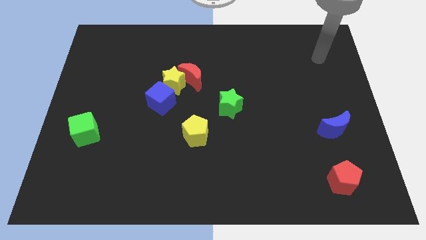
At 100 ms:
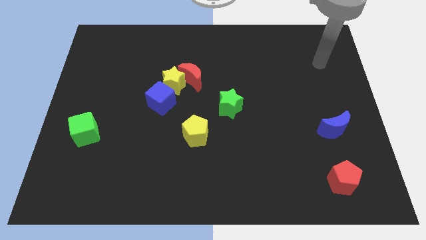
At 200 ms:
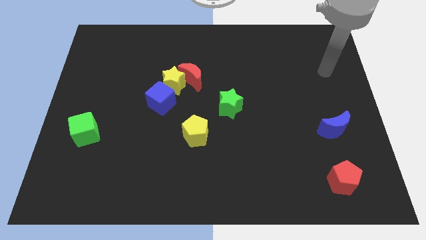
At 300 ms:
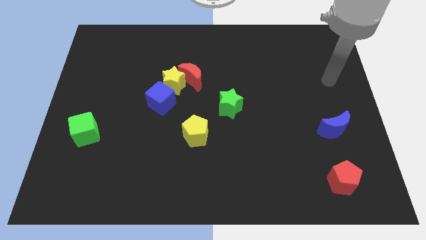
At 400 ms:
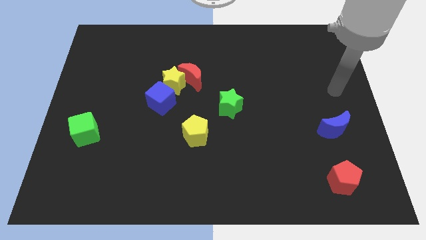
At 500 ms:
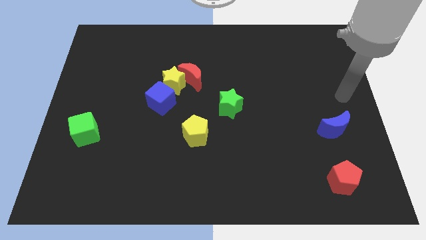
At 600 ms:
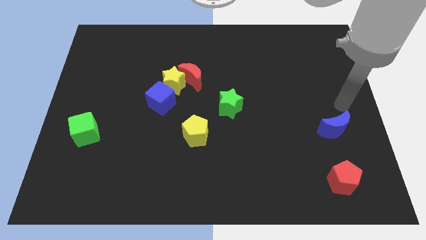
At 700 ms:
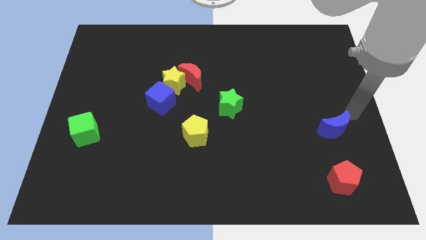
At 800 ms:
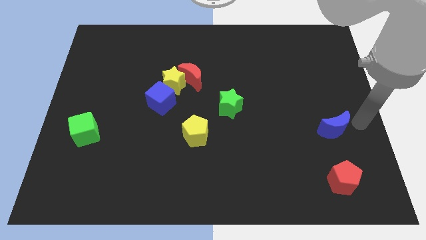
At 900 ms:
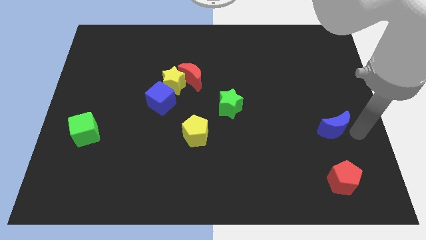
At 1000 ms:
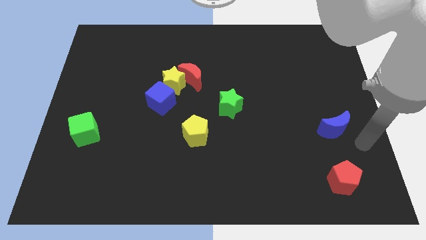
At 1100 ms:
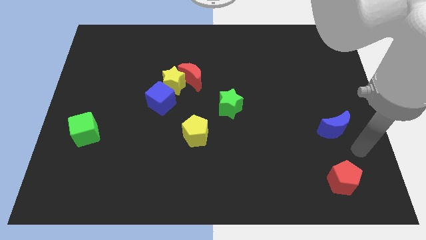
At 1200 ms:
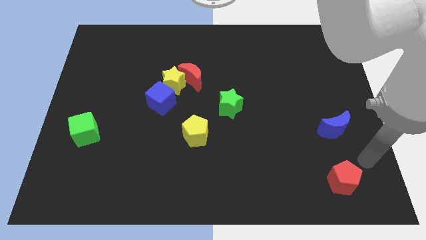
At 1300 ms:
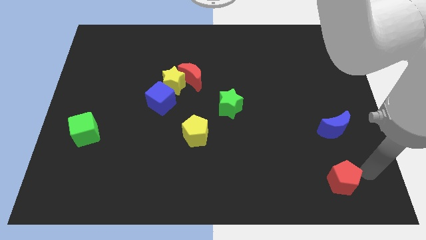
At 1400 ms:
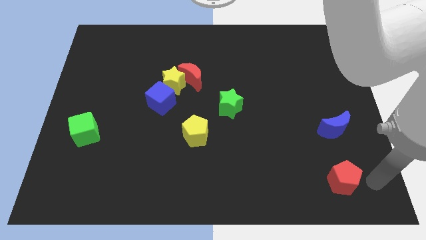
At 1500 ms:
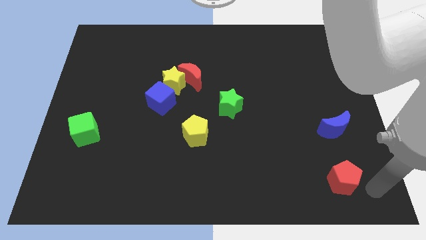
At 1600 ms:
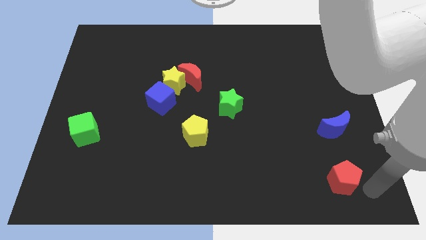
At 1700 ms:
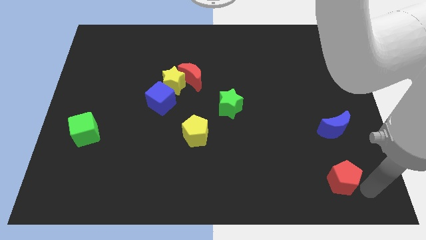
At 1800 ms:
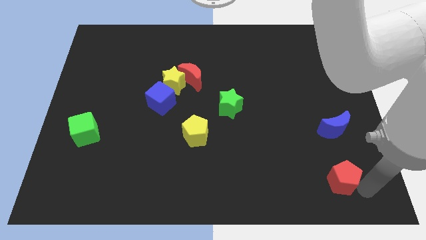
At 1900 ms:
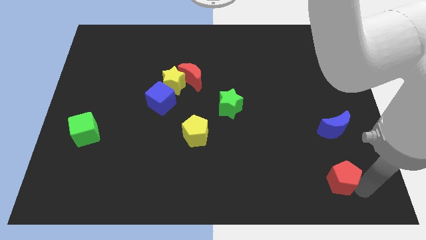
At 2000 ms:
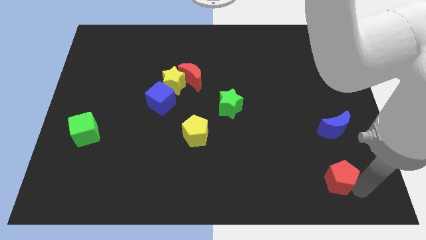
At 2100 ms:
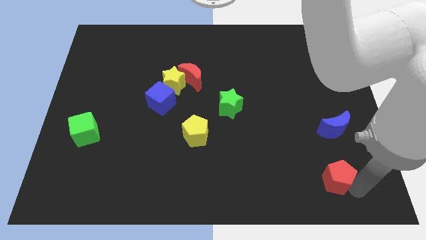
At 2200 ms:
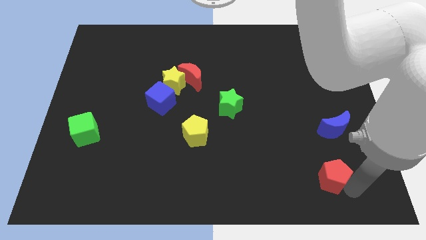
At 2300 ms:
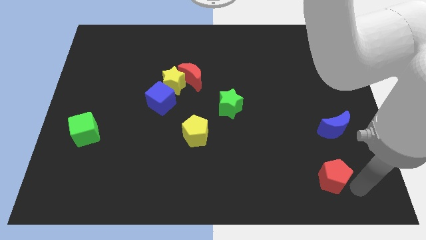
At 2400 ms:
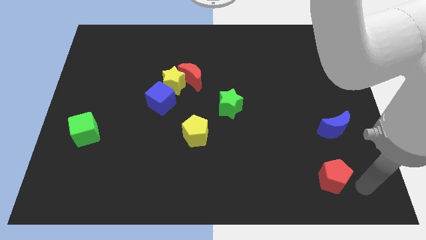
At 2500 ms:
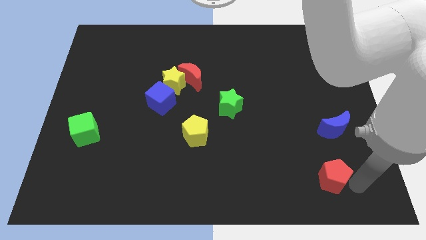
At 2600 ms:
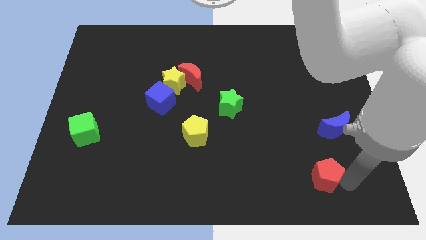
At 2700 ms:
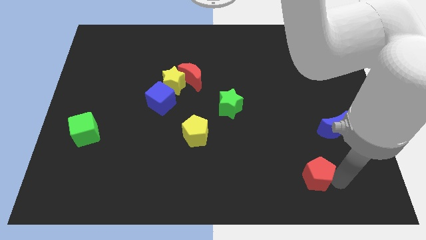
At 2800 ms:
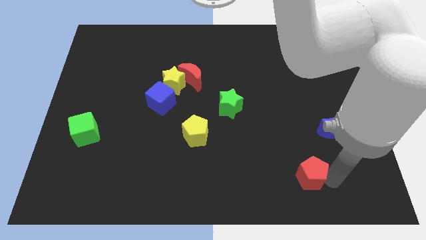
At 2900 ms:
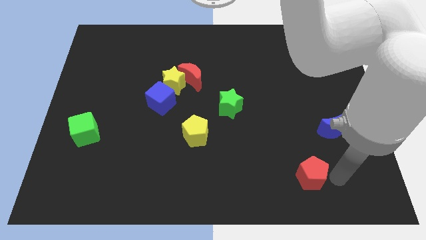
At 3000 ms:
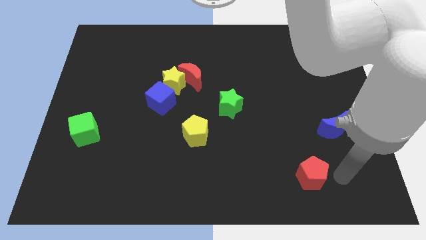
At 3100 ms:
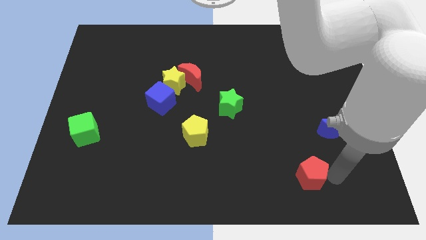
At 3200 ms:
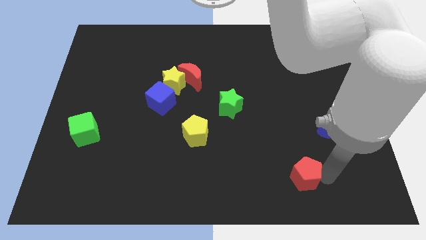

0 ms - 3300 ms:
slide the red pentagon slightly to the left

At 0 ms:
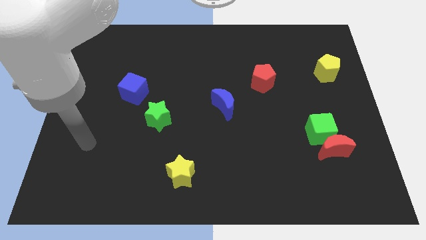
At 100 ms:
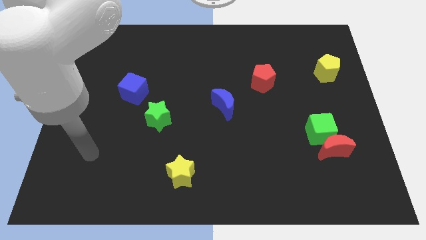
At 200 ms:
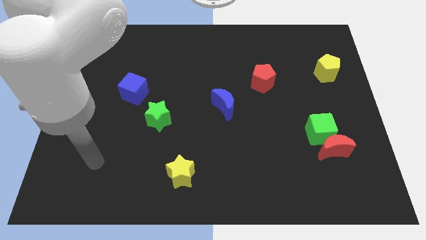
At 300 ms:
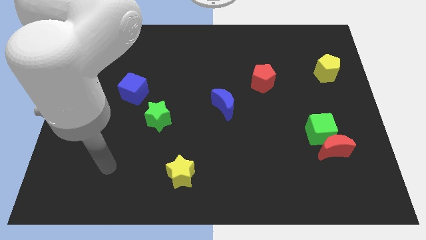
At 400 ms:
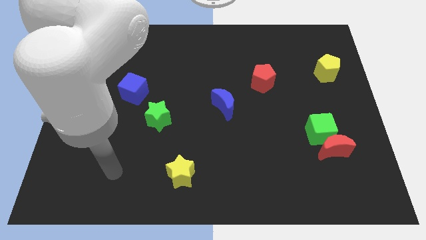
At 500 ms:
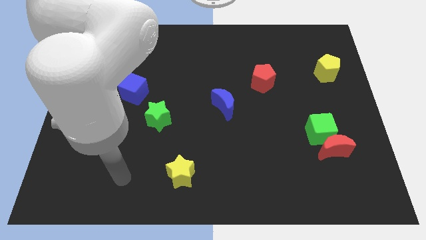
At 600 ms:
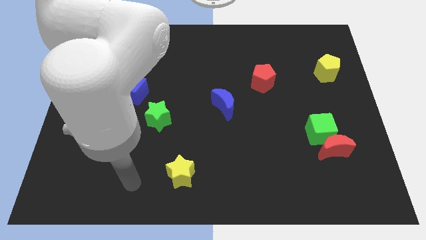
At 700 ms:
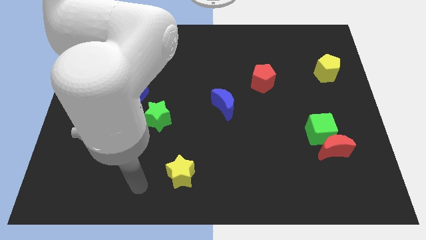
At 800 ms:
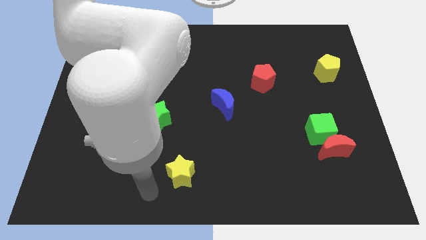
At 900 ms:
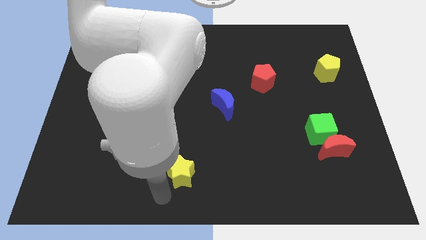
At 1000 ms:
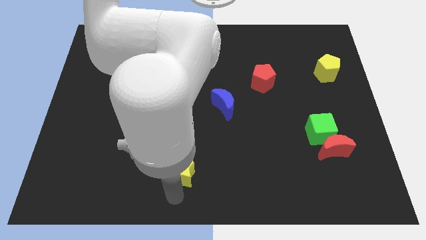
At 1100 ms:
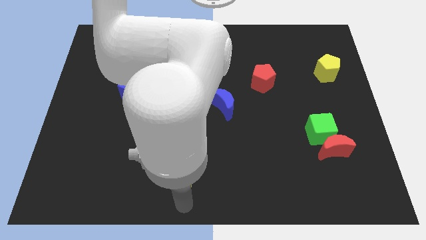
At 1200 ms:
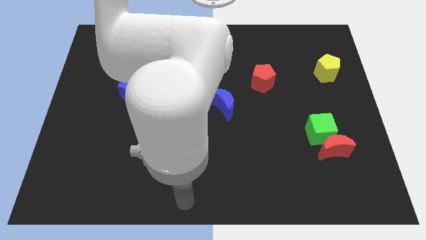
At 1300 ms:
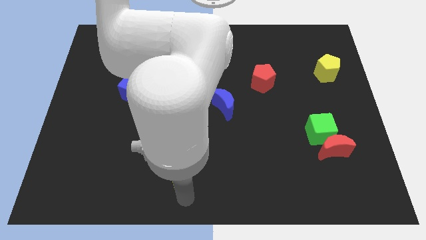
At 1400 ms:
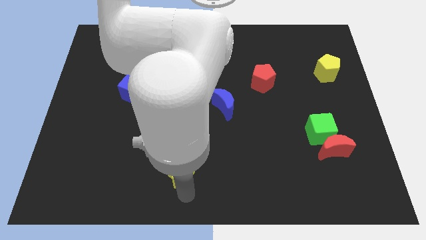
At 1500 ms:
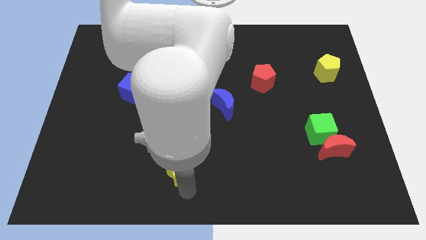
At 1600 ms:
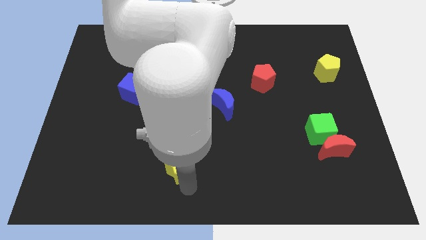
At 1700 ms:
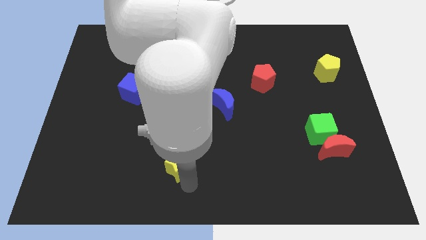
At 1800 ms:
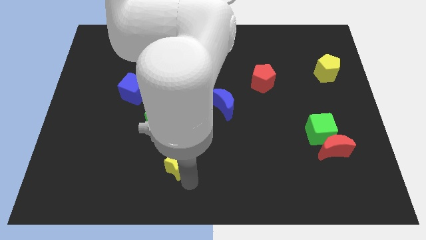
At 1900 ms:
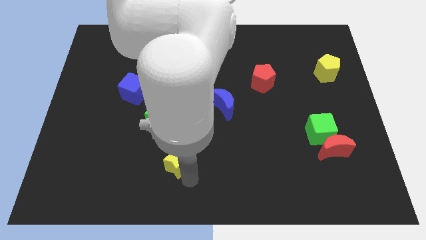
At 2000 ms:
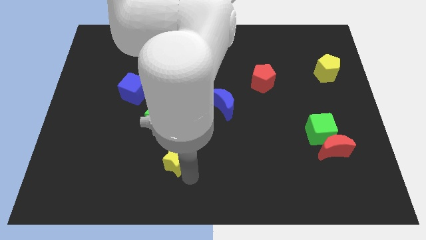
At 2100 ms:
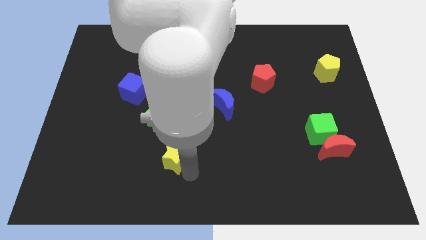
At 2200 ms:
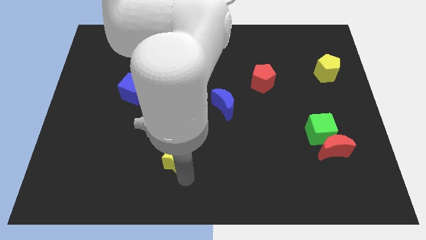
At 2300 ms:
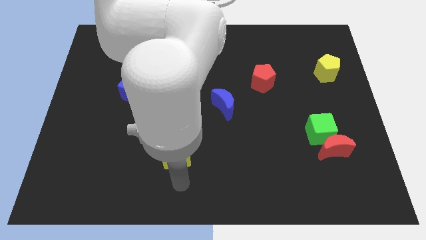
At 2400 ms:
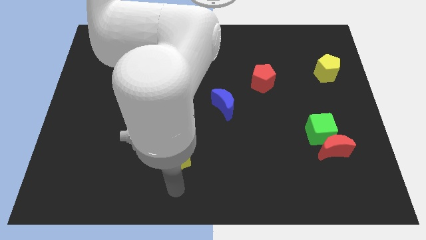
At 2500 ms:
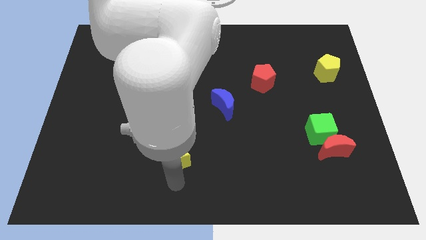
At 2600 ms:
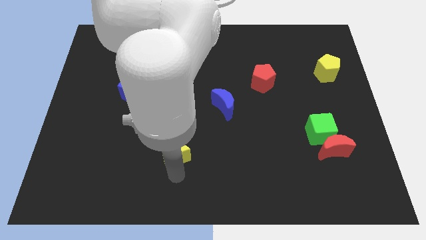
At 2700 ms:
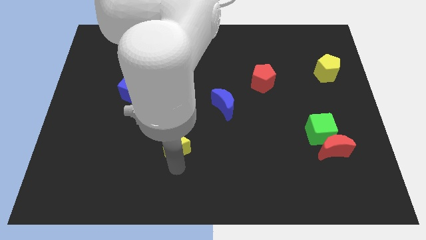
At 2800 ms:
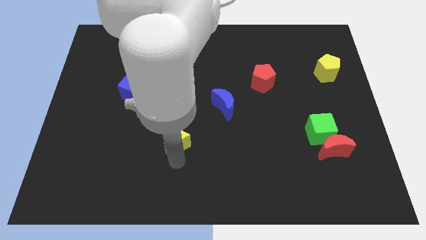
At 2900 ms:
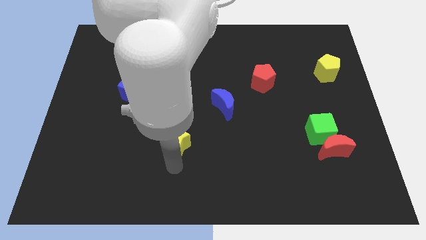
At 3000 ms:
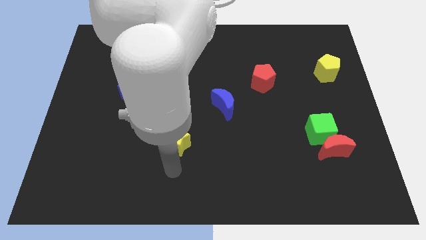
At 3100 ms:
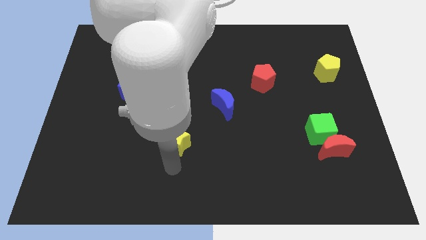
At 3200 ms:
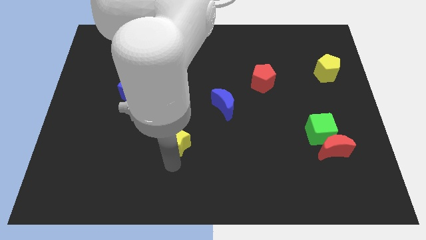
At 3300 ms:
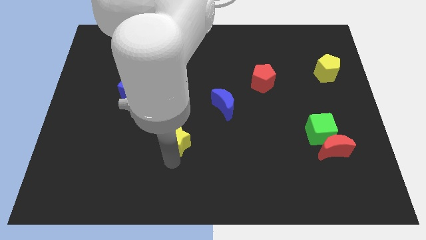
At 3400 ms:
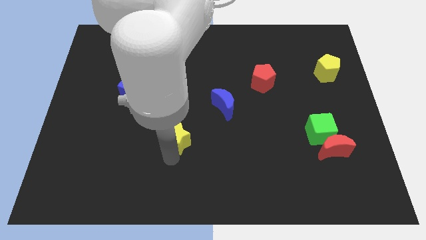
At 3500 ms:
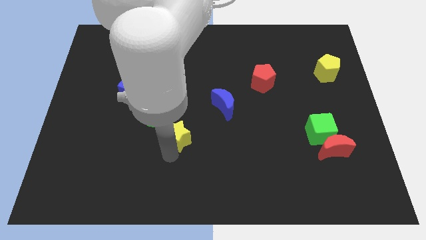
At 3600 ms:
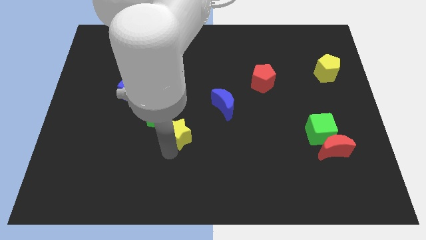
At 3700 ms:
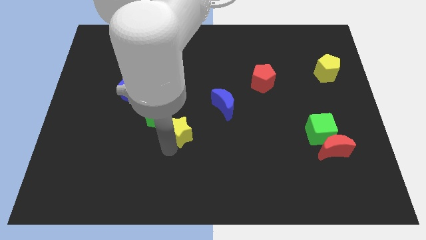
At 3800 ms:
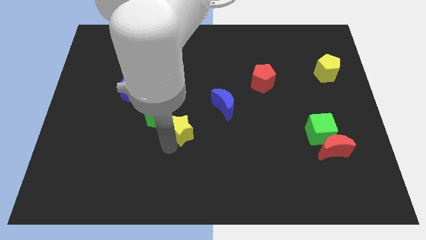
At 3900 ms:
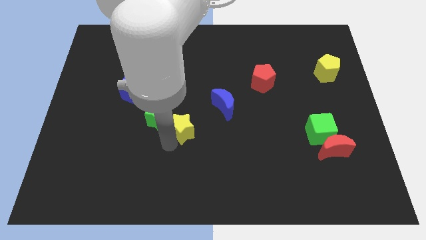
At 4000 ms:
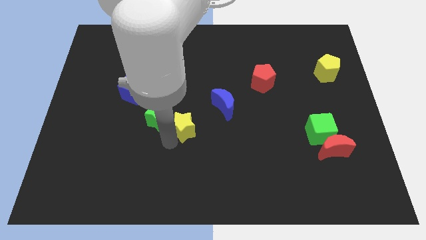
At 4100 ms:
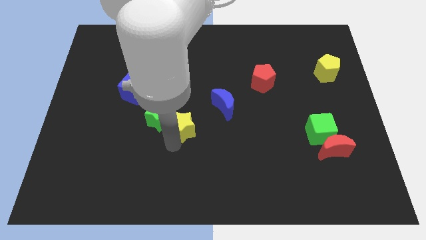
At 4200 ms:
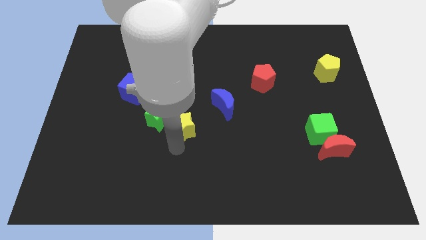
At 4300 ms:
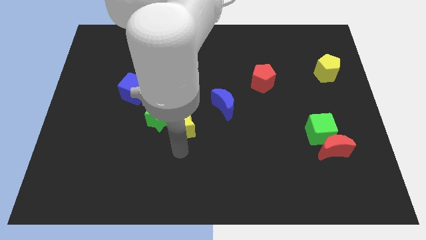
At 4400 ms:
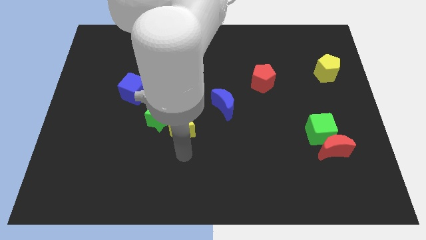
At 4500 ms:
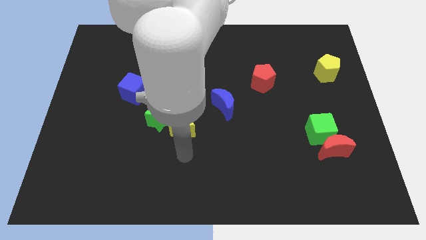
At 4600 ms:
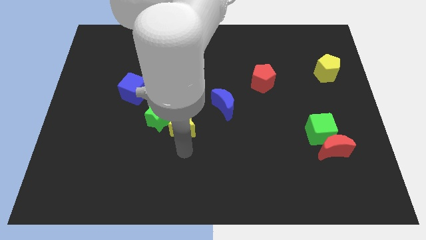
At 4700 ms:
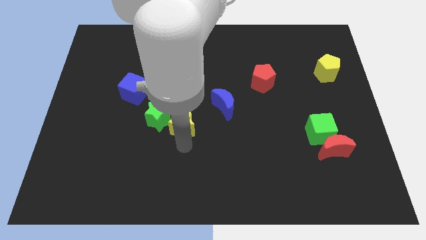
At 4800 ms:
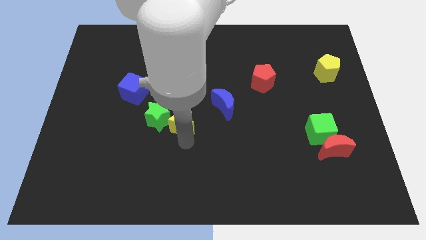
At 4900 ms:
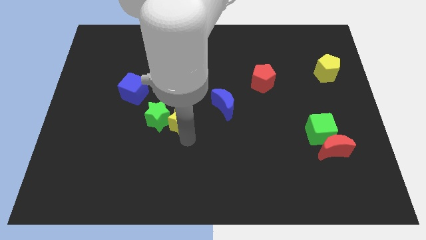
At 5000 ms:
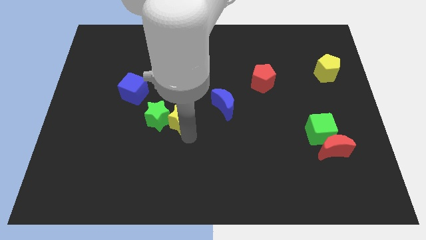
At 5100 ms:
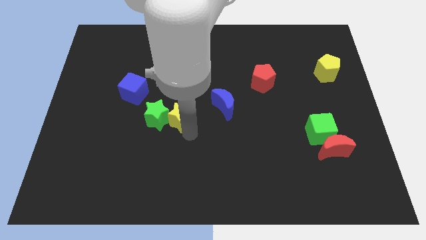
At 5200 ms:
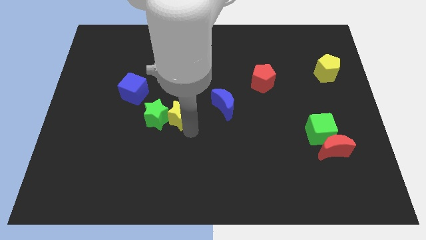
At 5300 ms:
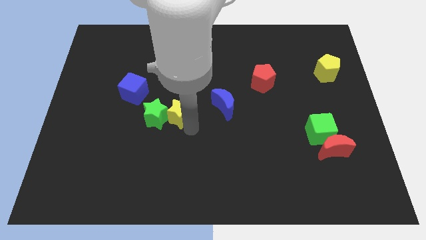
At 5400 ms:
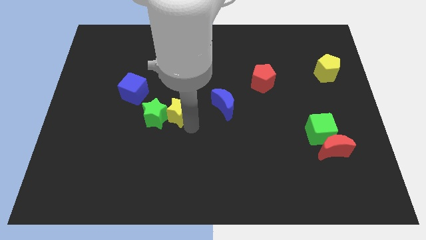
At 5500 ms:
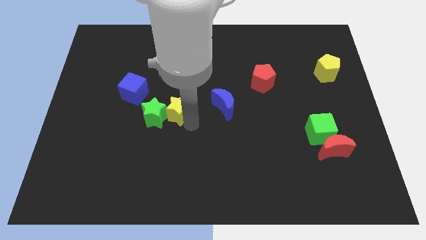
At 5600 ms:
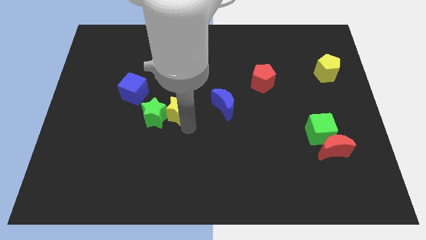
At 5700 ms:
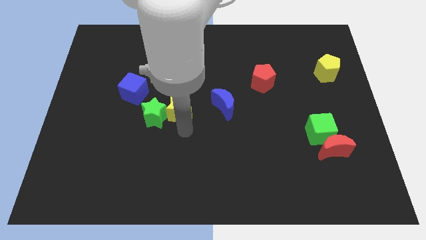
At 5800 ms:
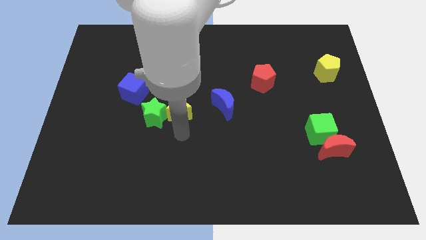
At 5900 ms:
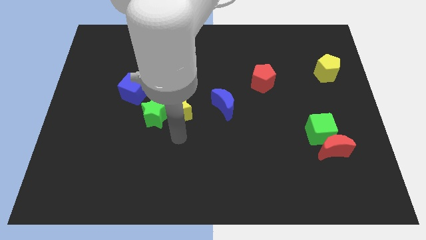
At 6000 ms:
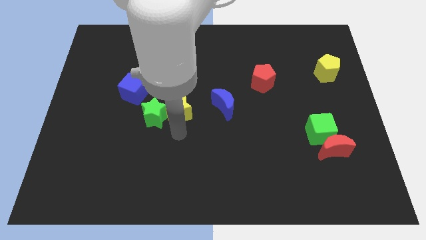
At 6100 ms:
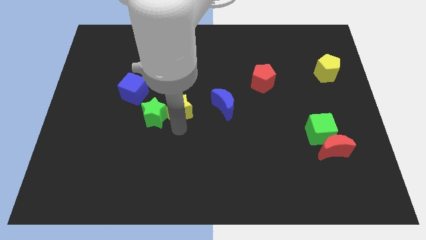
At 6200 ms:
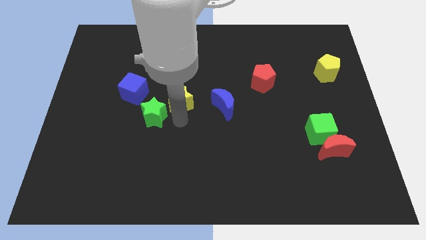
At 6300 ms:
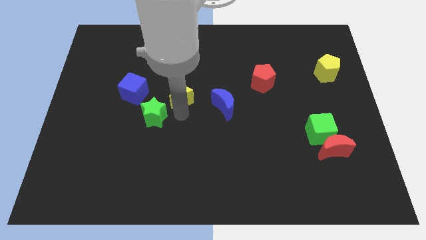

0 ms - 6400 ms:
slide the yellow star up
